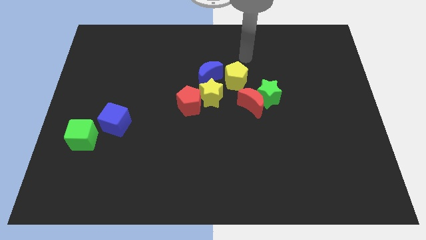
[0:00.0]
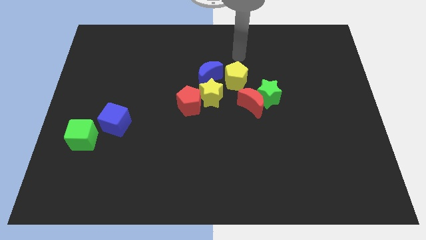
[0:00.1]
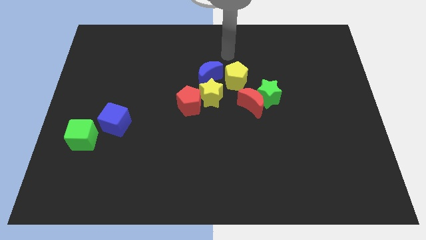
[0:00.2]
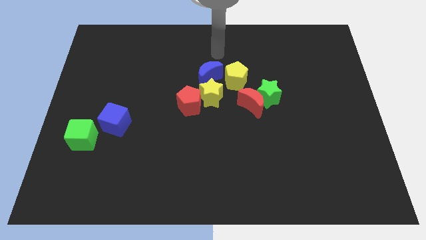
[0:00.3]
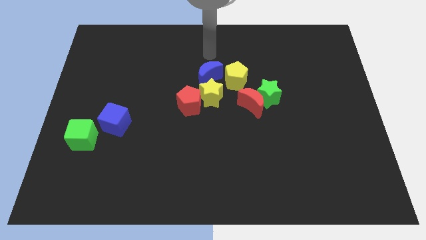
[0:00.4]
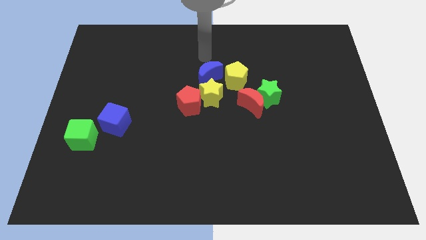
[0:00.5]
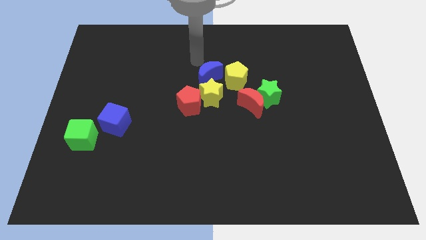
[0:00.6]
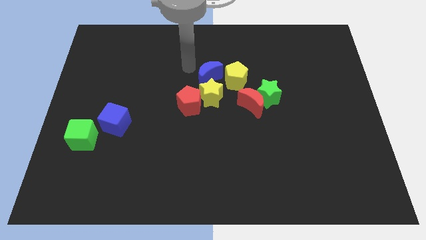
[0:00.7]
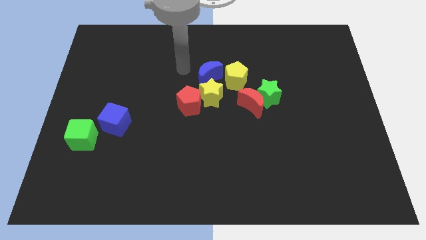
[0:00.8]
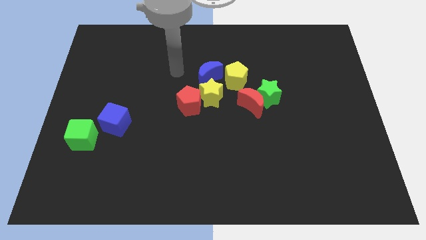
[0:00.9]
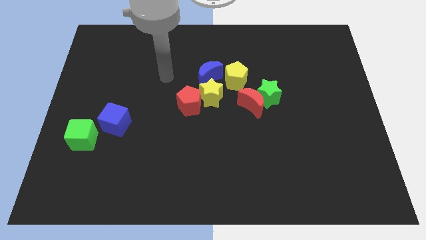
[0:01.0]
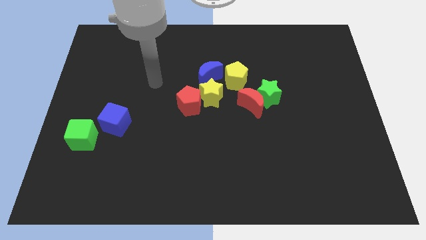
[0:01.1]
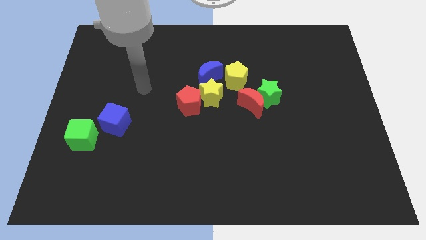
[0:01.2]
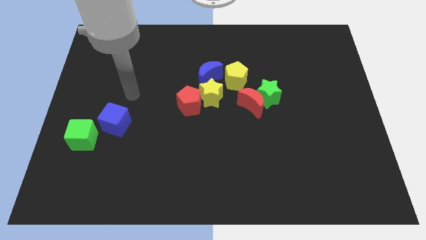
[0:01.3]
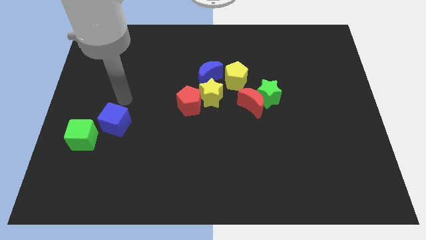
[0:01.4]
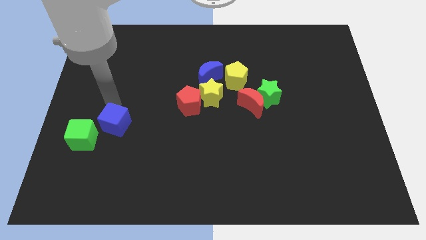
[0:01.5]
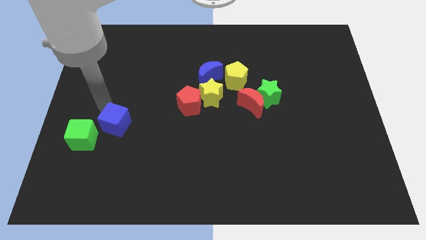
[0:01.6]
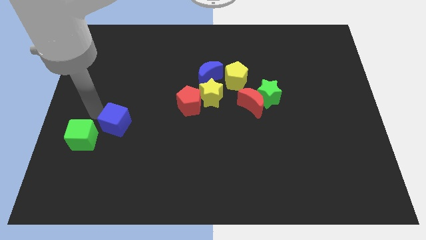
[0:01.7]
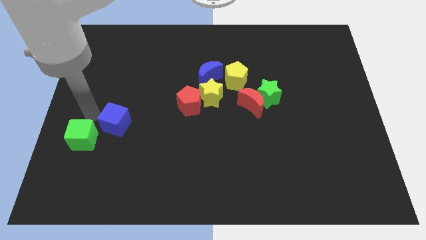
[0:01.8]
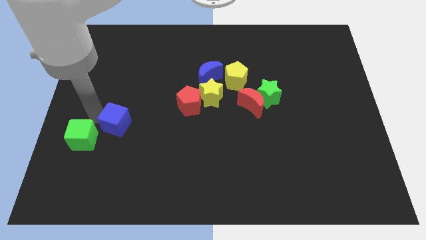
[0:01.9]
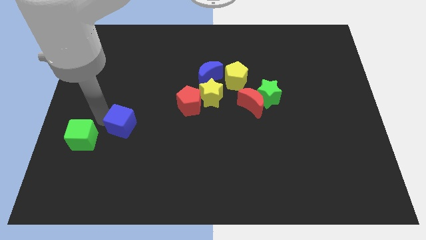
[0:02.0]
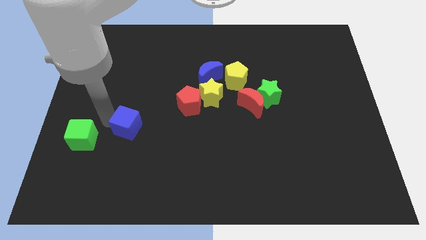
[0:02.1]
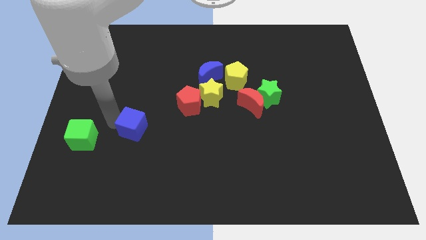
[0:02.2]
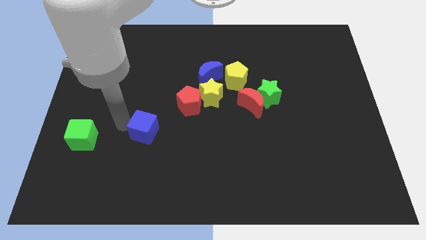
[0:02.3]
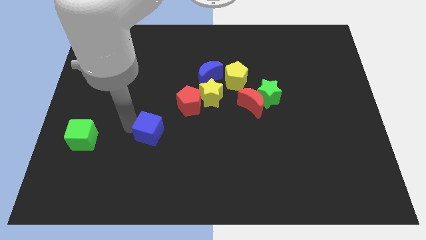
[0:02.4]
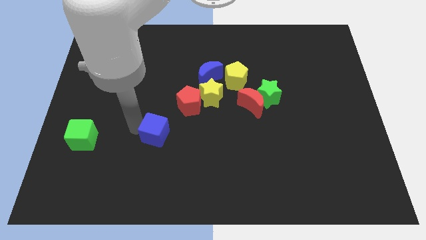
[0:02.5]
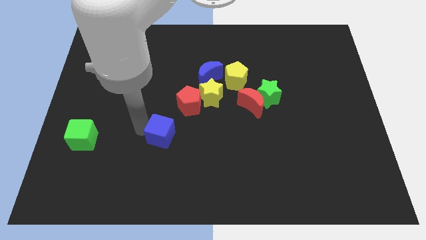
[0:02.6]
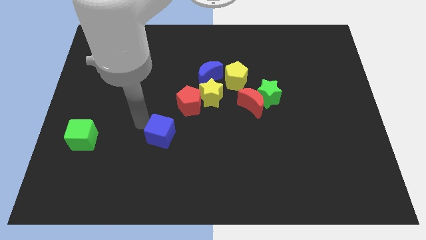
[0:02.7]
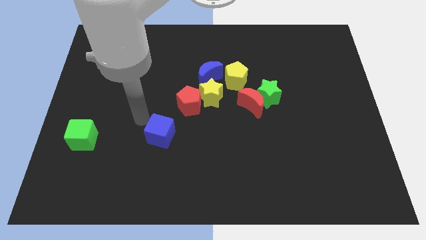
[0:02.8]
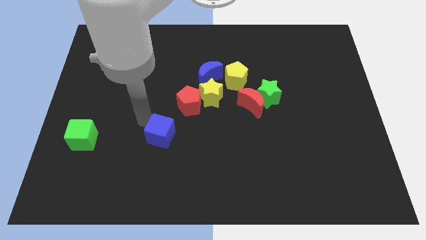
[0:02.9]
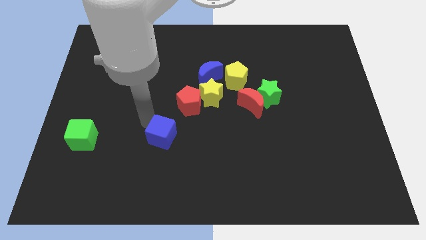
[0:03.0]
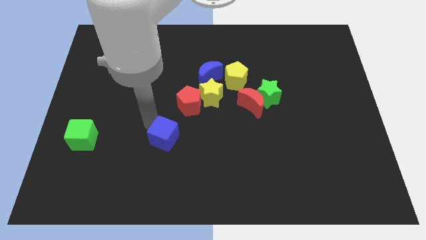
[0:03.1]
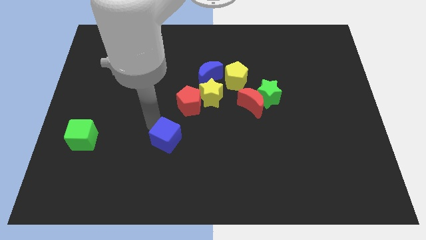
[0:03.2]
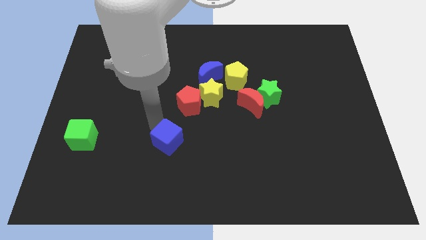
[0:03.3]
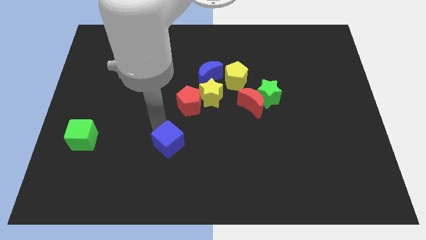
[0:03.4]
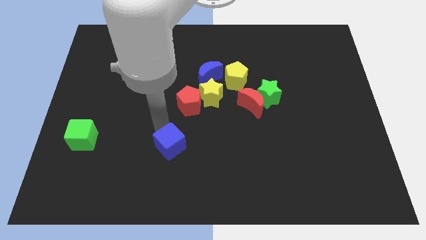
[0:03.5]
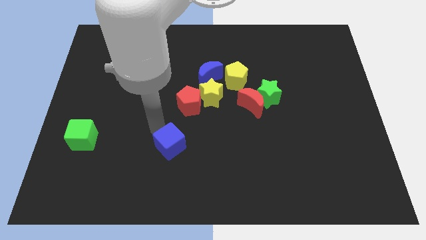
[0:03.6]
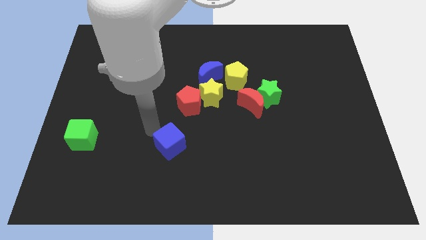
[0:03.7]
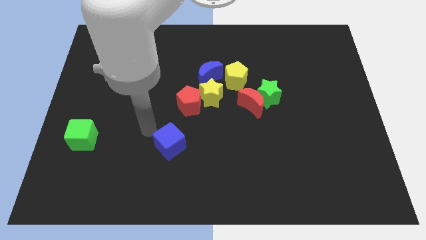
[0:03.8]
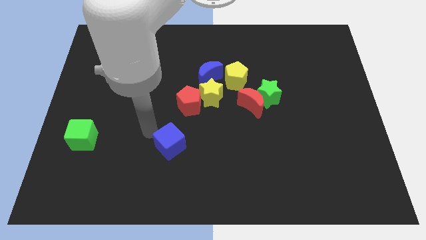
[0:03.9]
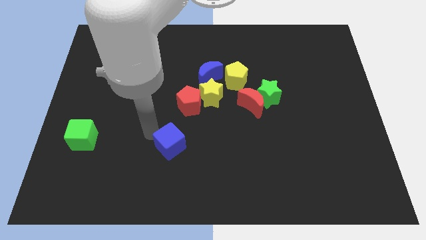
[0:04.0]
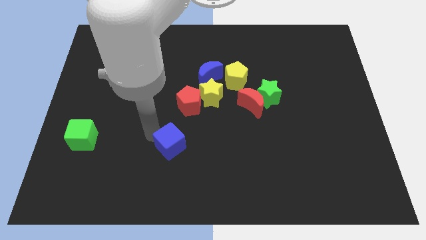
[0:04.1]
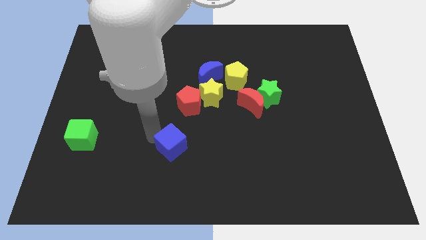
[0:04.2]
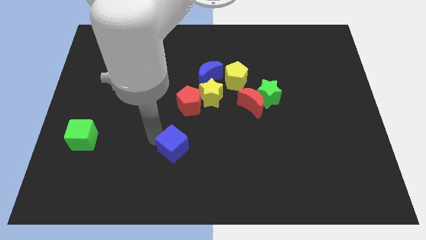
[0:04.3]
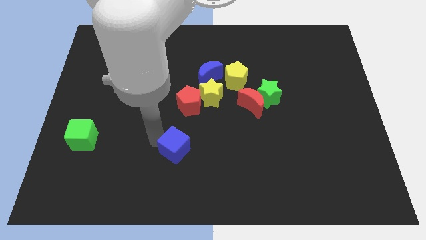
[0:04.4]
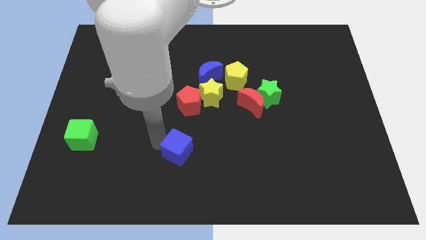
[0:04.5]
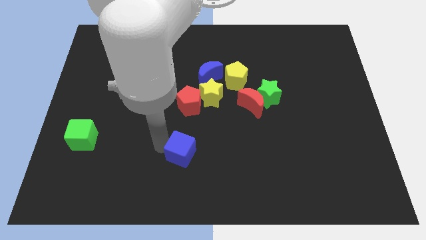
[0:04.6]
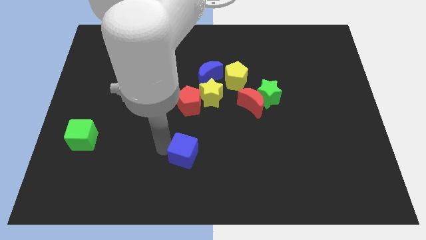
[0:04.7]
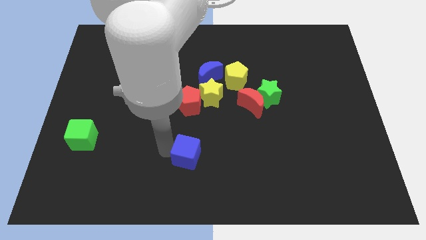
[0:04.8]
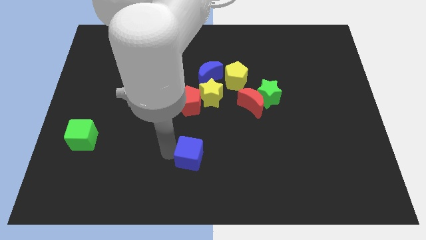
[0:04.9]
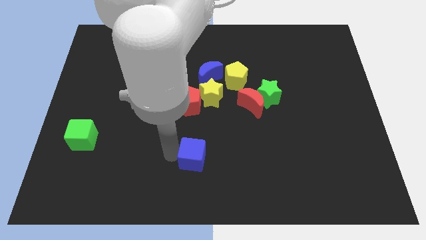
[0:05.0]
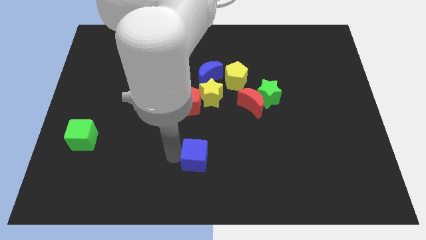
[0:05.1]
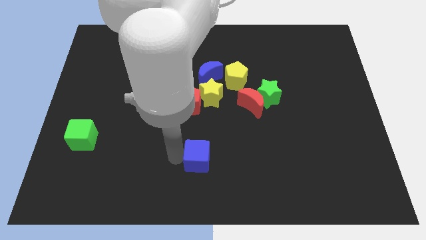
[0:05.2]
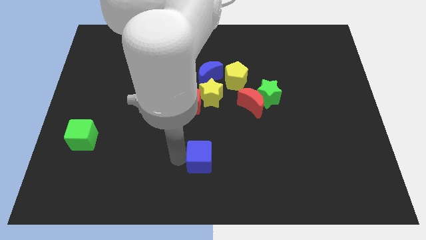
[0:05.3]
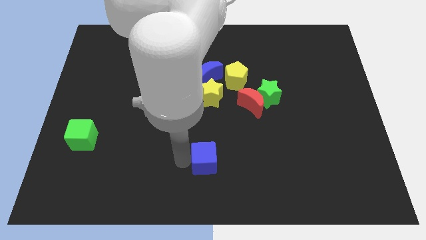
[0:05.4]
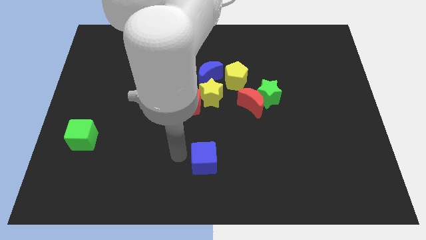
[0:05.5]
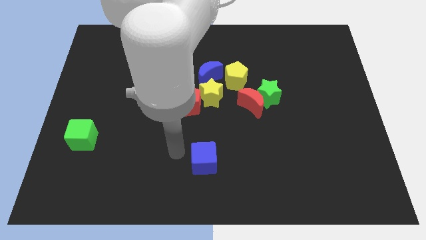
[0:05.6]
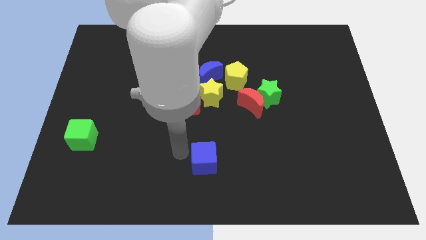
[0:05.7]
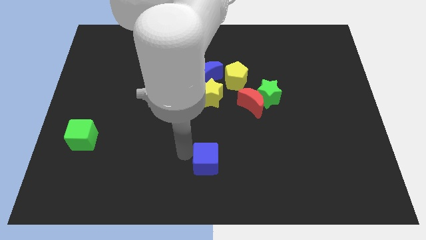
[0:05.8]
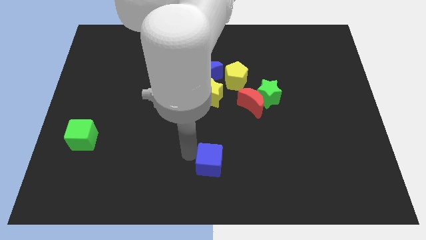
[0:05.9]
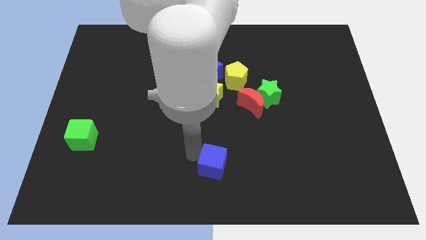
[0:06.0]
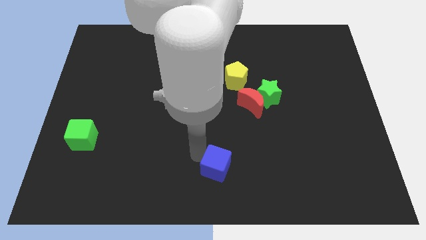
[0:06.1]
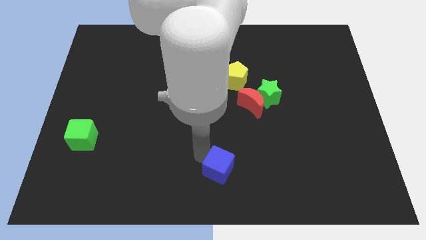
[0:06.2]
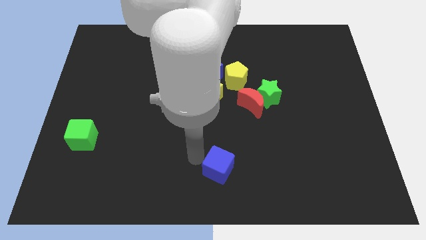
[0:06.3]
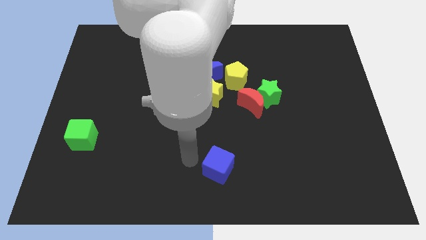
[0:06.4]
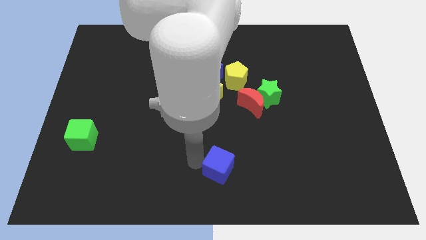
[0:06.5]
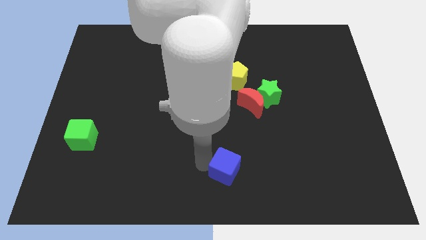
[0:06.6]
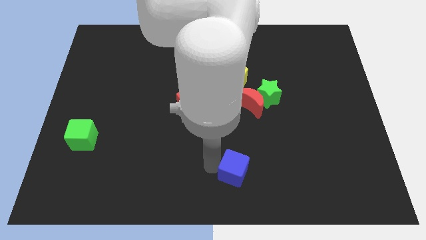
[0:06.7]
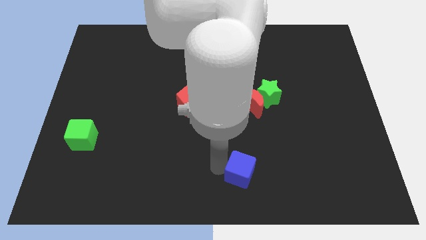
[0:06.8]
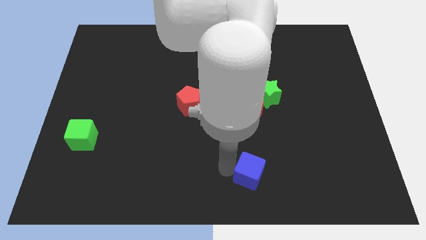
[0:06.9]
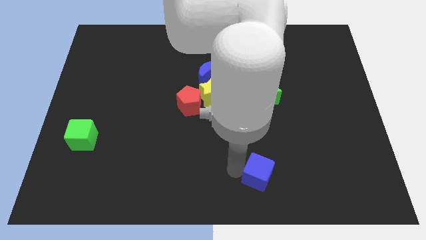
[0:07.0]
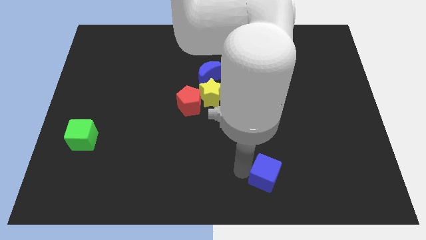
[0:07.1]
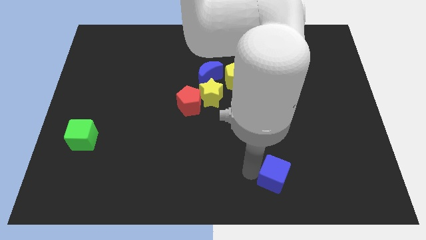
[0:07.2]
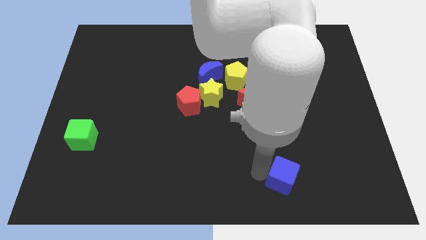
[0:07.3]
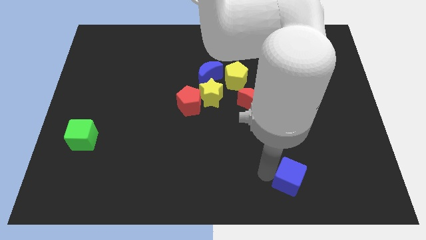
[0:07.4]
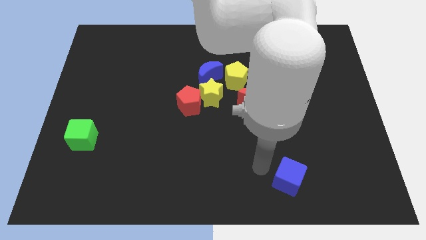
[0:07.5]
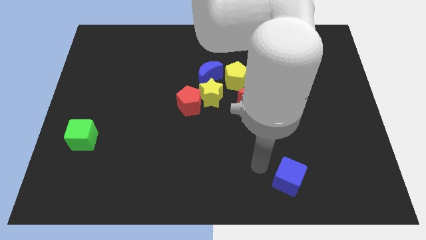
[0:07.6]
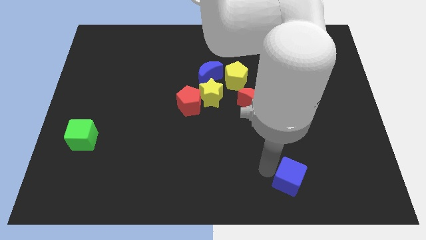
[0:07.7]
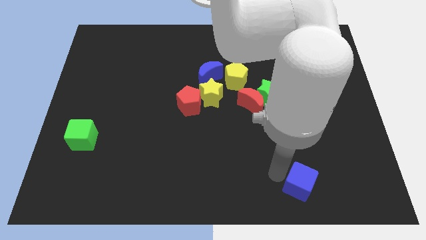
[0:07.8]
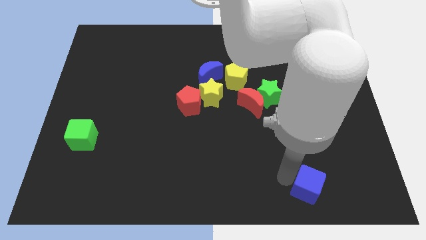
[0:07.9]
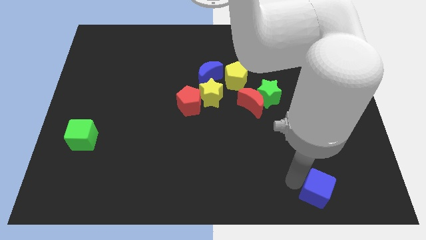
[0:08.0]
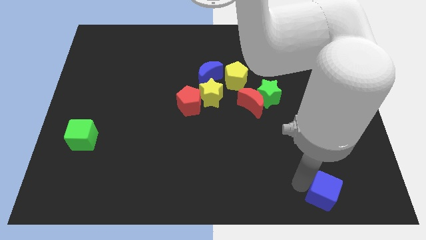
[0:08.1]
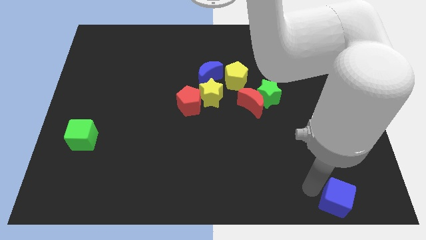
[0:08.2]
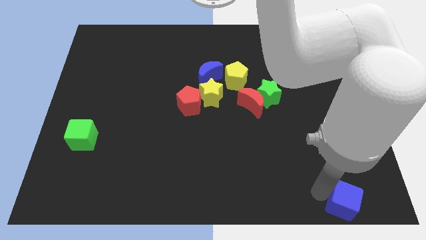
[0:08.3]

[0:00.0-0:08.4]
put the blue cube to the bottom right corner
